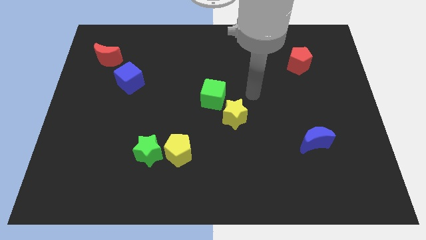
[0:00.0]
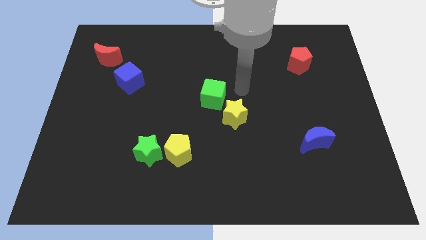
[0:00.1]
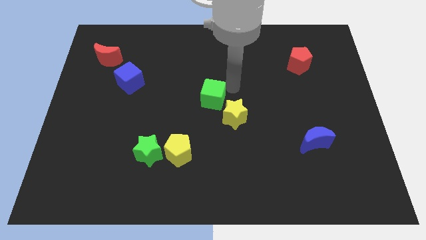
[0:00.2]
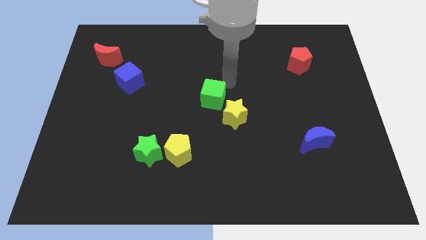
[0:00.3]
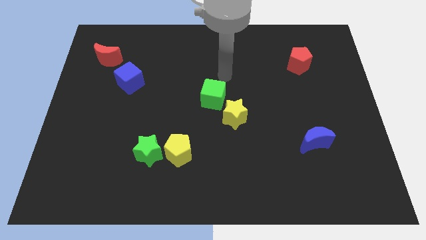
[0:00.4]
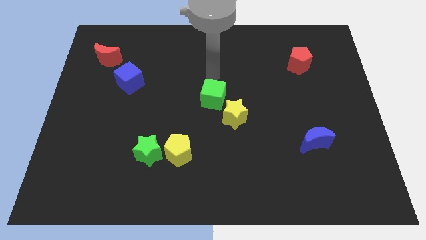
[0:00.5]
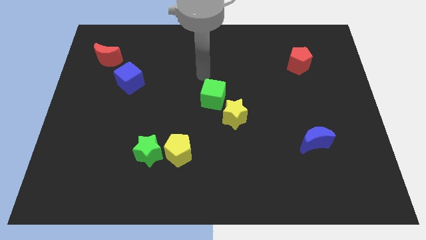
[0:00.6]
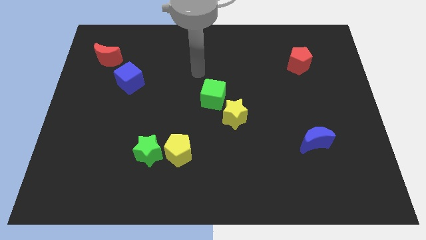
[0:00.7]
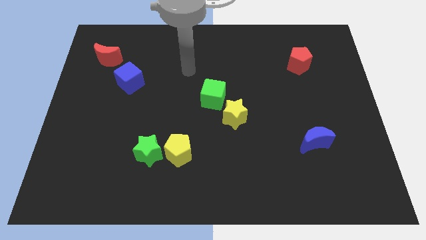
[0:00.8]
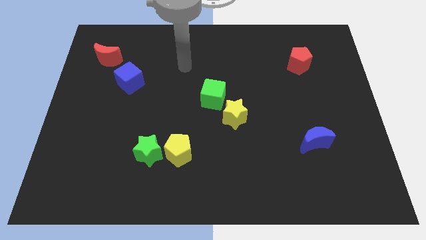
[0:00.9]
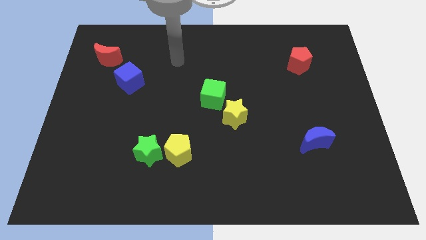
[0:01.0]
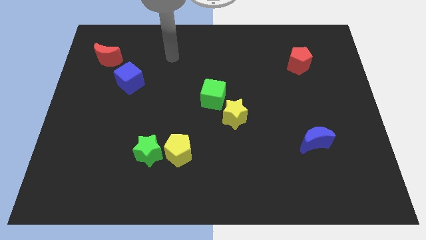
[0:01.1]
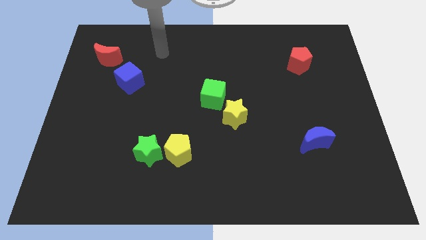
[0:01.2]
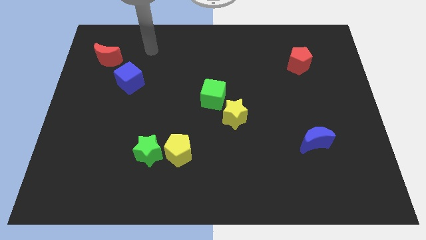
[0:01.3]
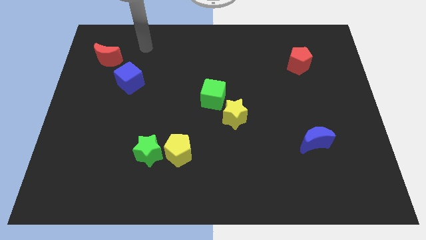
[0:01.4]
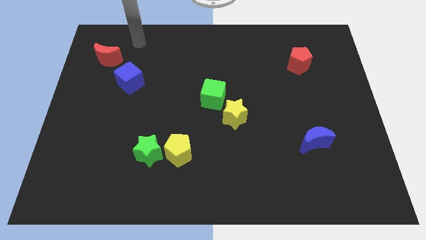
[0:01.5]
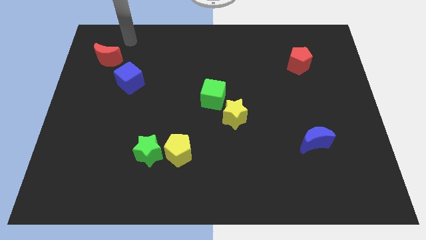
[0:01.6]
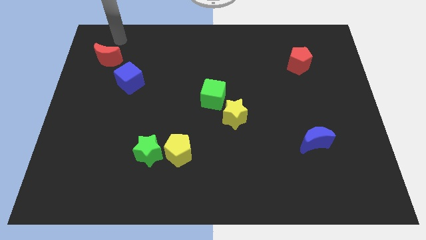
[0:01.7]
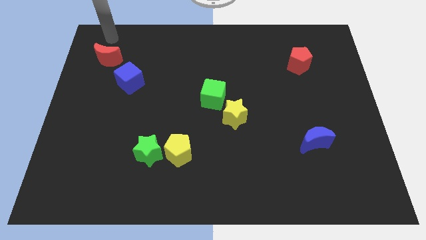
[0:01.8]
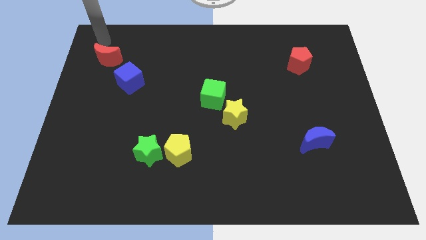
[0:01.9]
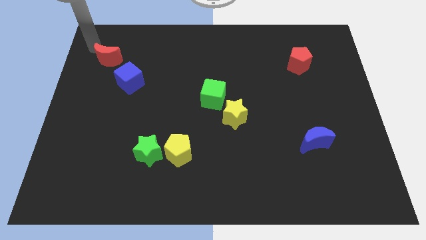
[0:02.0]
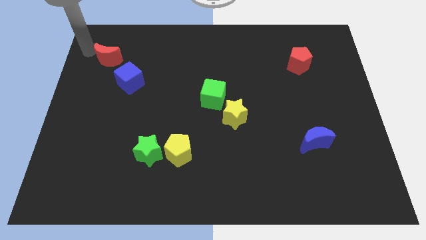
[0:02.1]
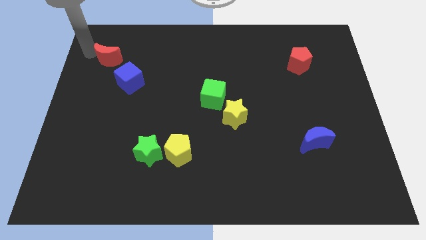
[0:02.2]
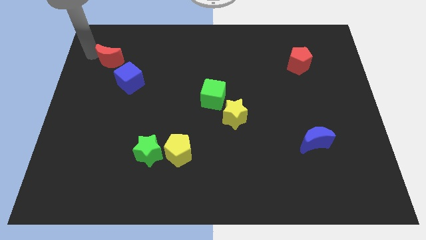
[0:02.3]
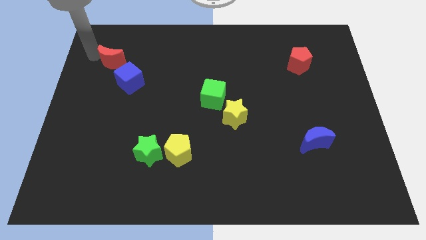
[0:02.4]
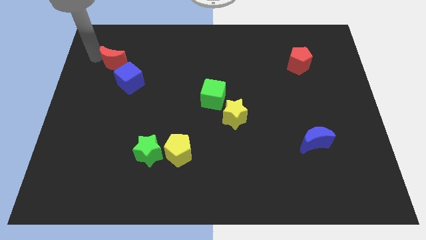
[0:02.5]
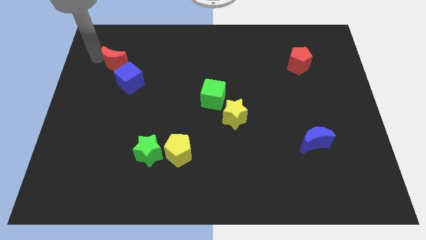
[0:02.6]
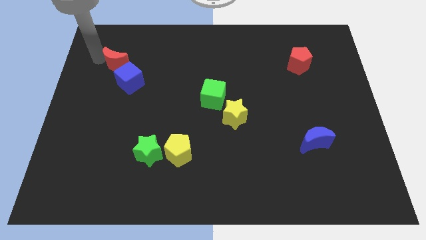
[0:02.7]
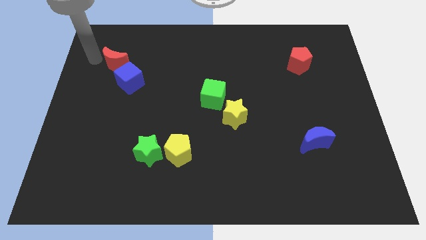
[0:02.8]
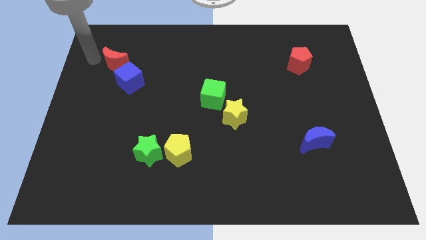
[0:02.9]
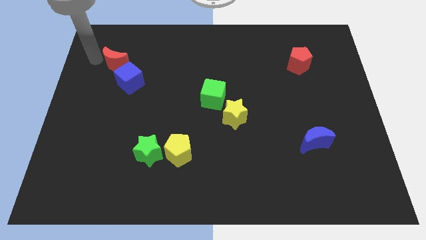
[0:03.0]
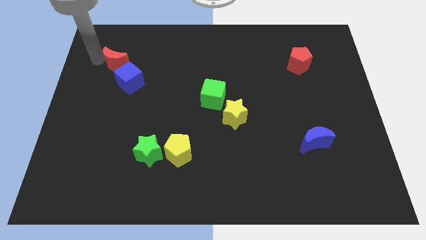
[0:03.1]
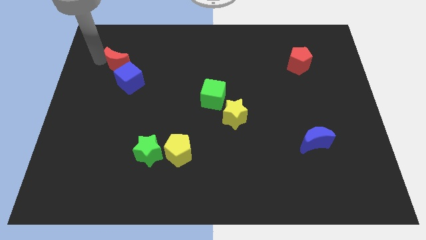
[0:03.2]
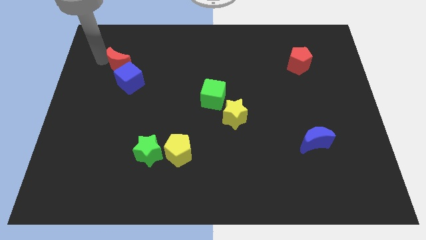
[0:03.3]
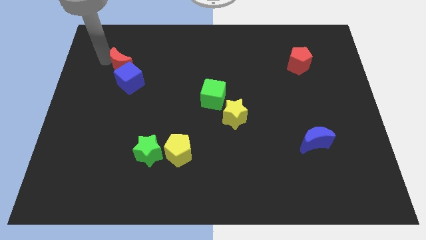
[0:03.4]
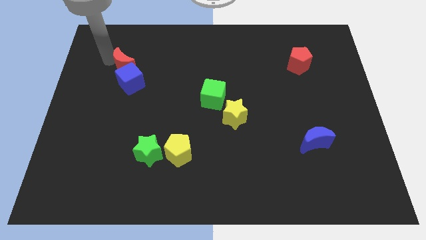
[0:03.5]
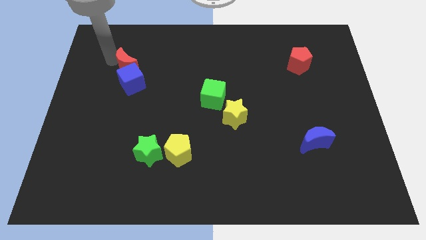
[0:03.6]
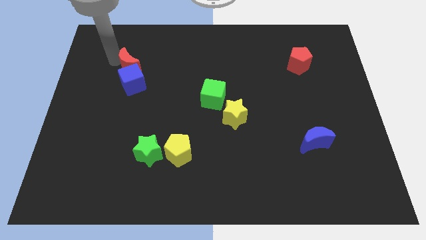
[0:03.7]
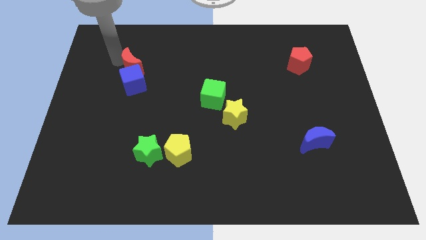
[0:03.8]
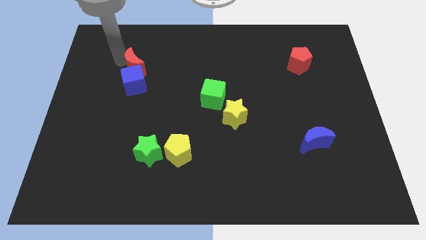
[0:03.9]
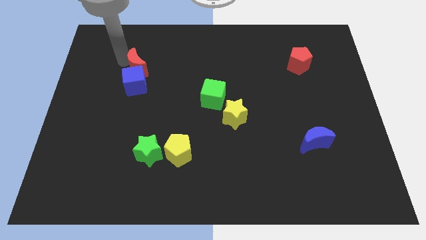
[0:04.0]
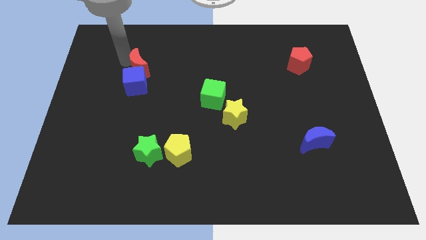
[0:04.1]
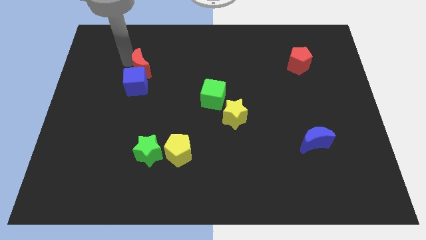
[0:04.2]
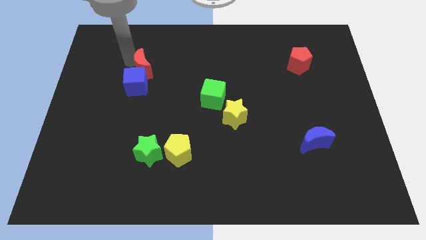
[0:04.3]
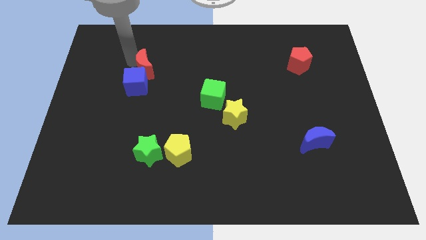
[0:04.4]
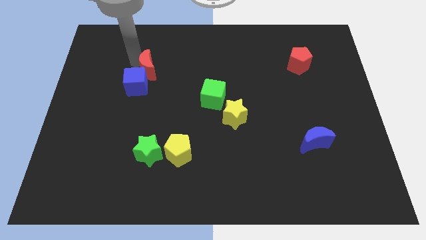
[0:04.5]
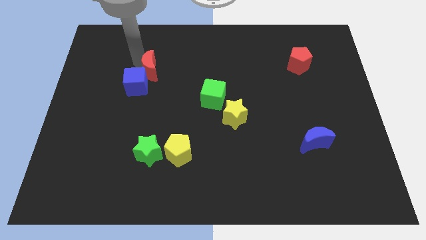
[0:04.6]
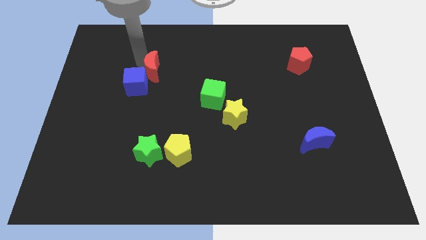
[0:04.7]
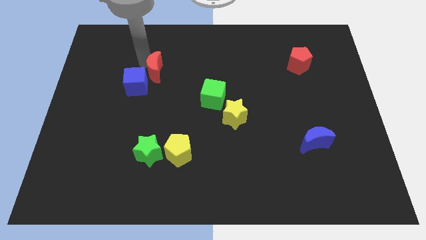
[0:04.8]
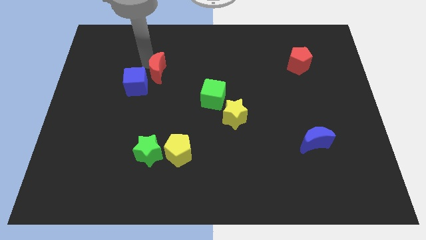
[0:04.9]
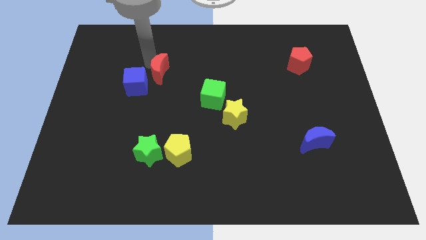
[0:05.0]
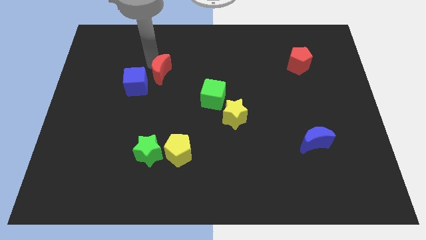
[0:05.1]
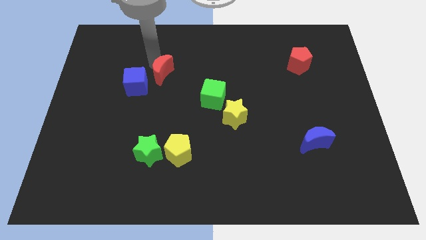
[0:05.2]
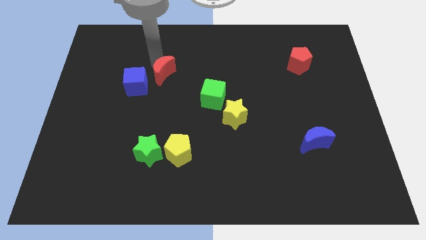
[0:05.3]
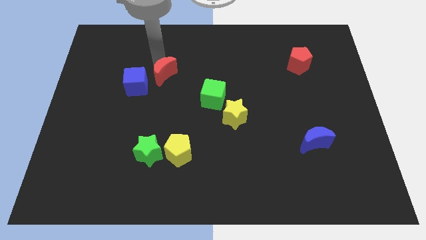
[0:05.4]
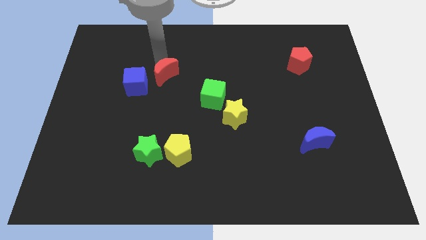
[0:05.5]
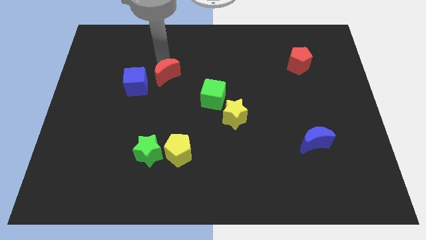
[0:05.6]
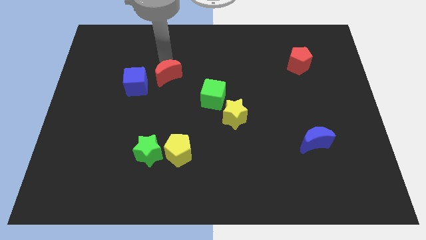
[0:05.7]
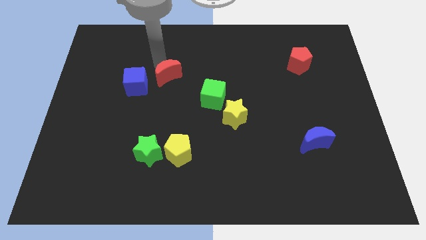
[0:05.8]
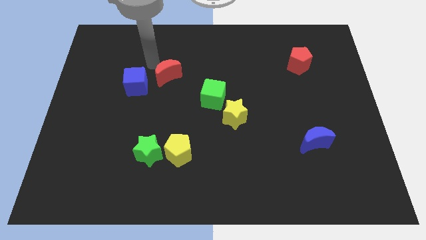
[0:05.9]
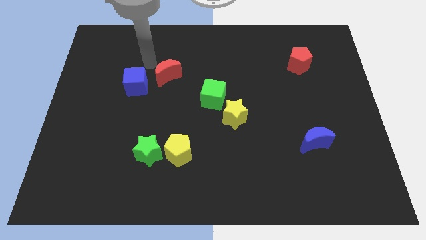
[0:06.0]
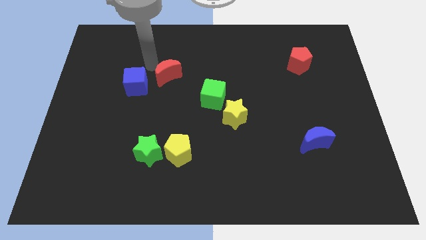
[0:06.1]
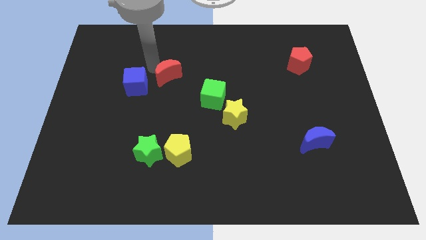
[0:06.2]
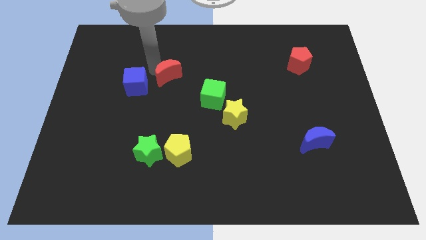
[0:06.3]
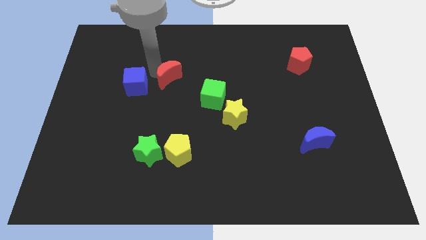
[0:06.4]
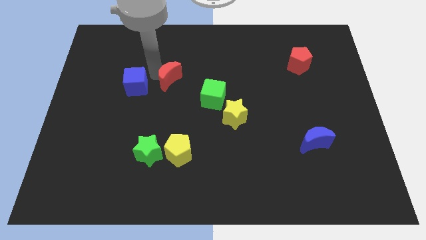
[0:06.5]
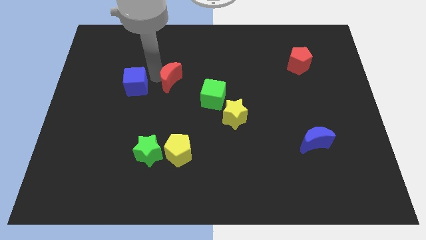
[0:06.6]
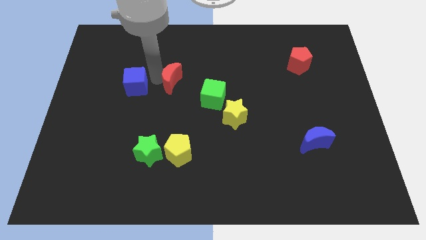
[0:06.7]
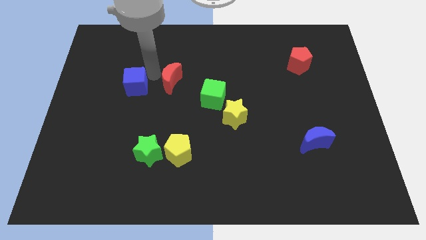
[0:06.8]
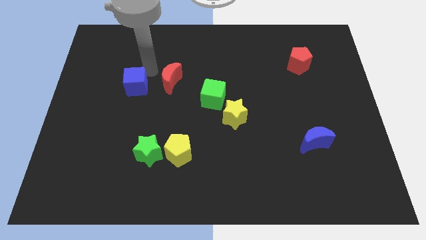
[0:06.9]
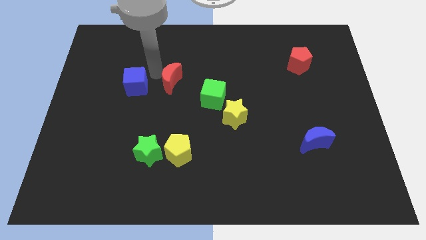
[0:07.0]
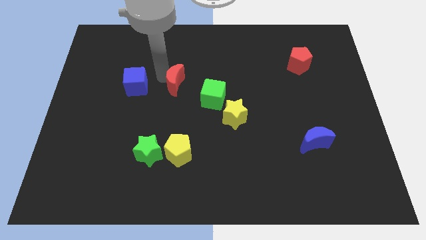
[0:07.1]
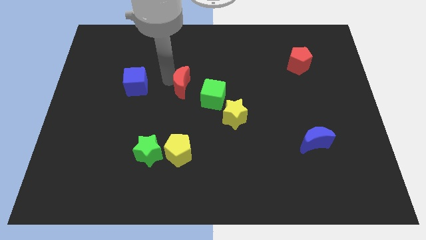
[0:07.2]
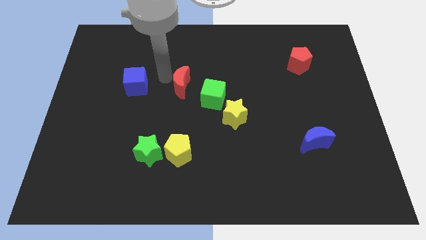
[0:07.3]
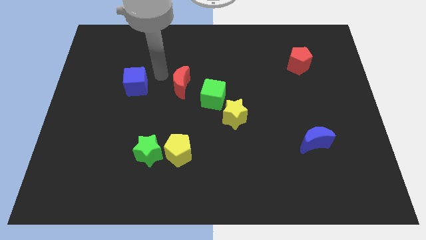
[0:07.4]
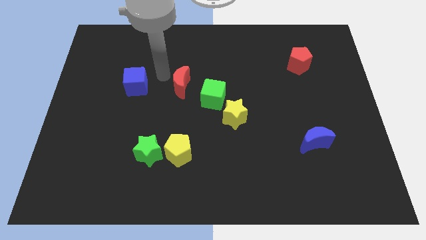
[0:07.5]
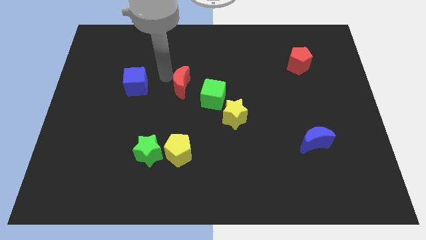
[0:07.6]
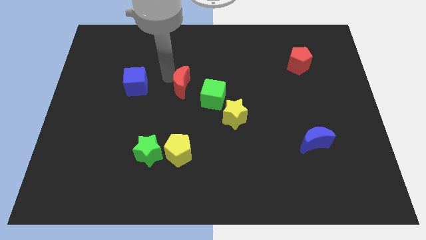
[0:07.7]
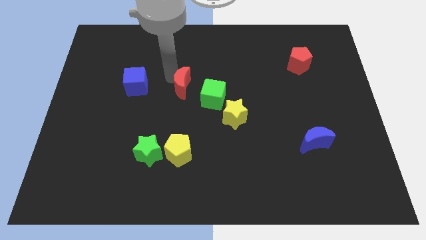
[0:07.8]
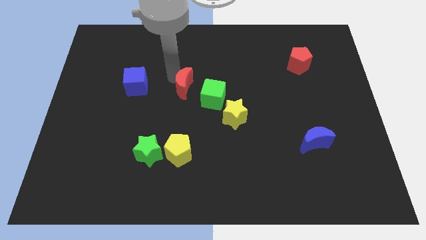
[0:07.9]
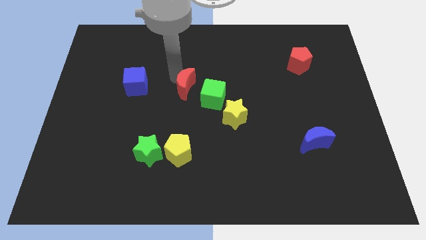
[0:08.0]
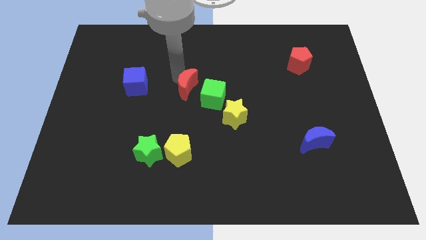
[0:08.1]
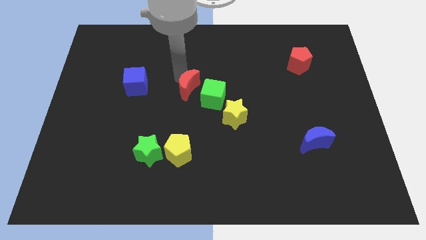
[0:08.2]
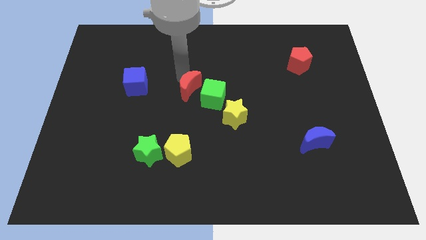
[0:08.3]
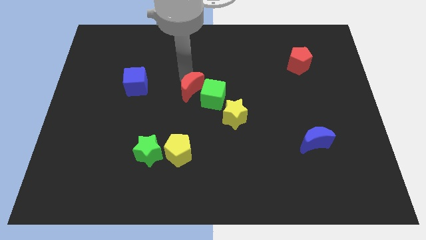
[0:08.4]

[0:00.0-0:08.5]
slide the red moon close to the green cube
